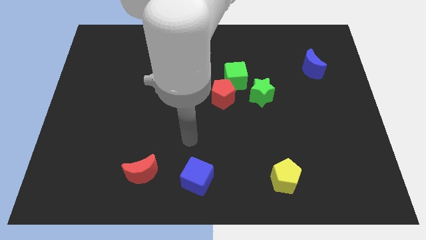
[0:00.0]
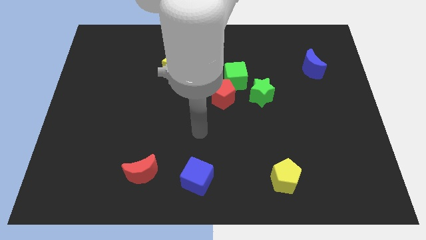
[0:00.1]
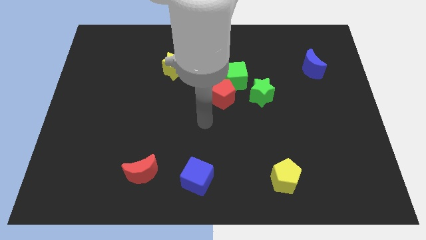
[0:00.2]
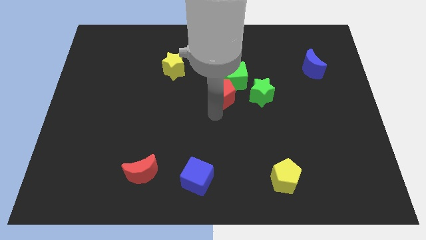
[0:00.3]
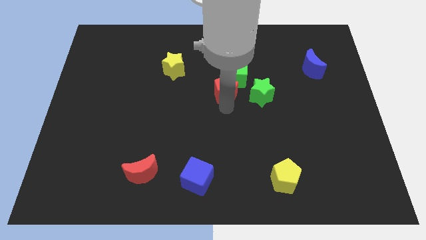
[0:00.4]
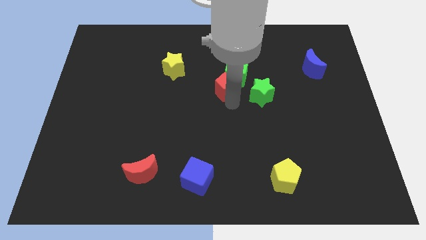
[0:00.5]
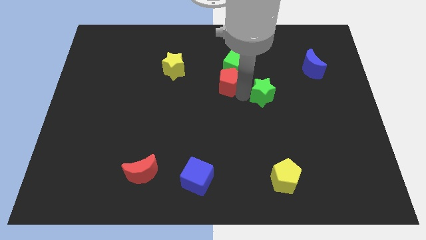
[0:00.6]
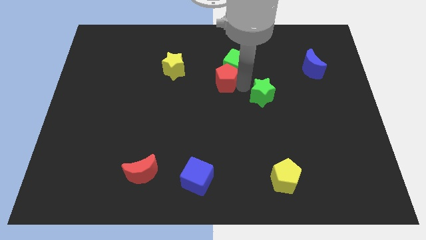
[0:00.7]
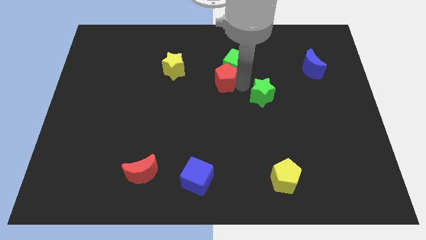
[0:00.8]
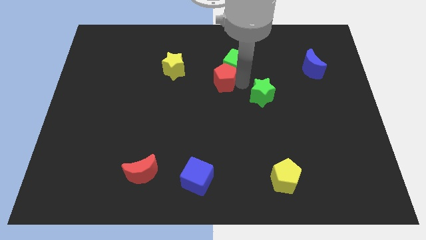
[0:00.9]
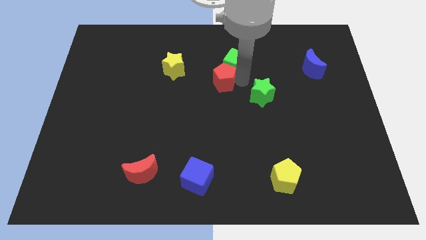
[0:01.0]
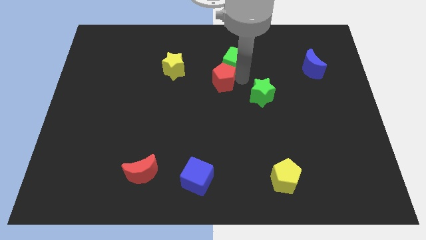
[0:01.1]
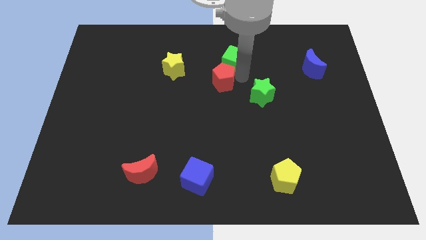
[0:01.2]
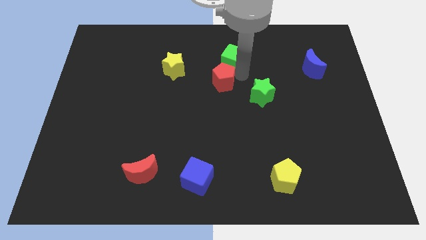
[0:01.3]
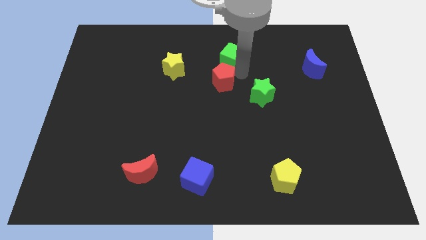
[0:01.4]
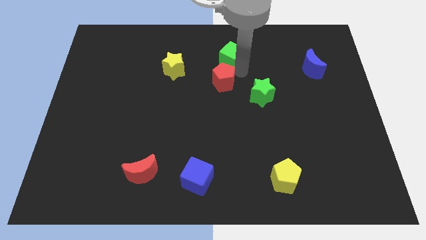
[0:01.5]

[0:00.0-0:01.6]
move the green cube away from the red pentagon and green star

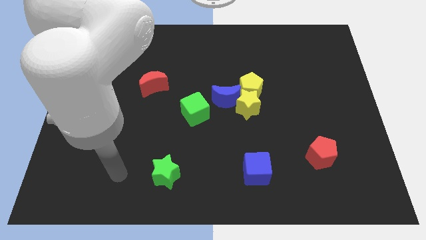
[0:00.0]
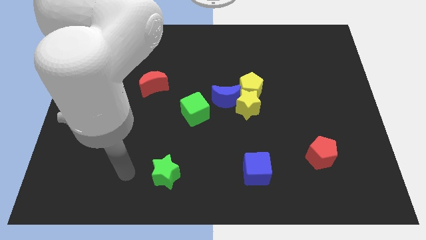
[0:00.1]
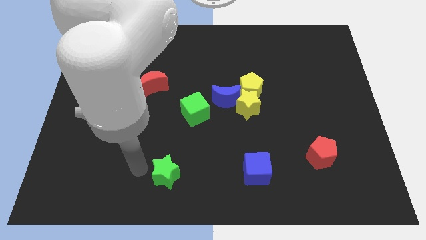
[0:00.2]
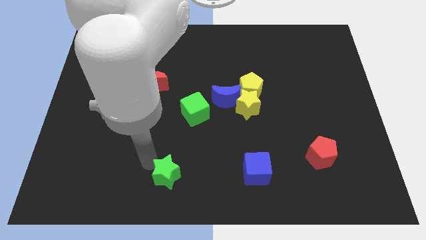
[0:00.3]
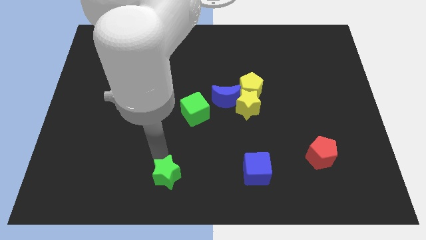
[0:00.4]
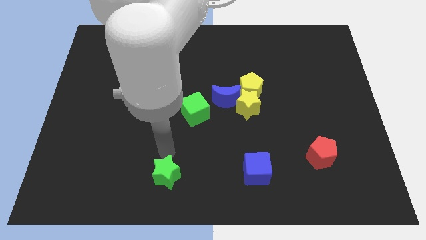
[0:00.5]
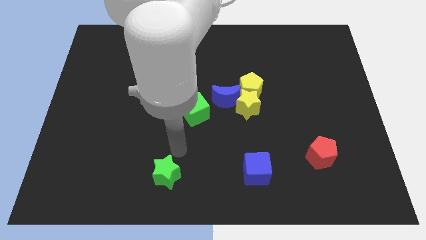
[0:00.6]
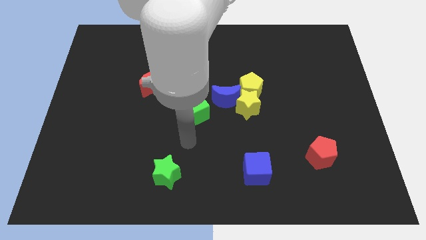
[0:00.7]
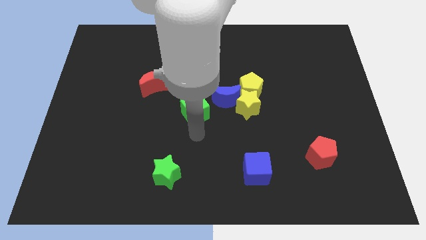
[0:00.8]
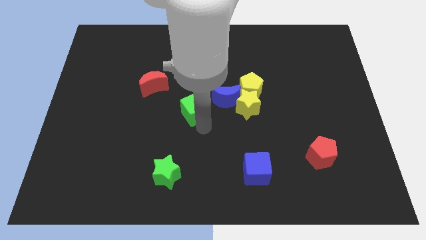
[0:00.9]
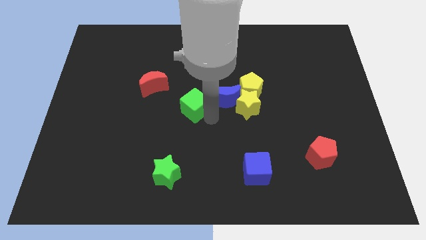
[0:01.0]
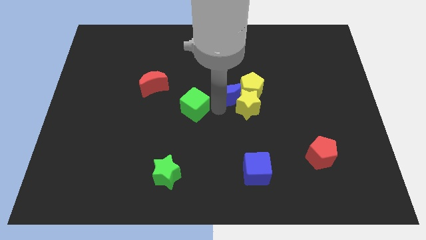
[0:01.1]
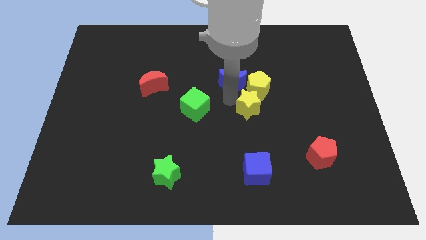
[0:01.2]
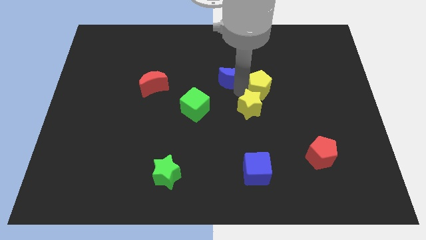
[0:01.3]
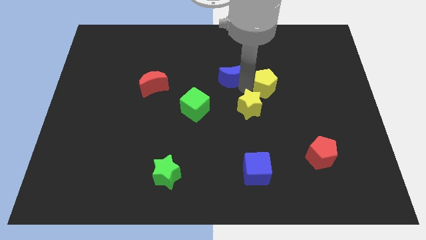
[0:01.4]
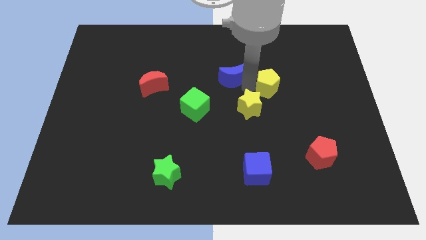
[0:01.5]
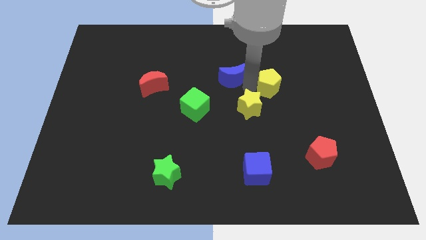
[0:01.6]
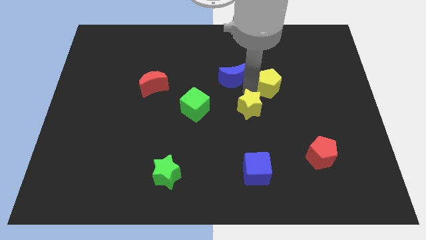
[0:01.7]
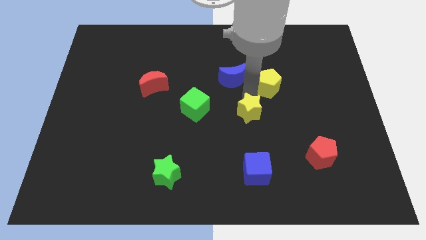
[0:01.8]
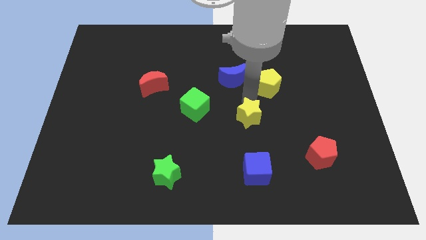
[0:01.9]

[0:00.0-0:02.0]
separate the yellow star from the yellow pentagon and blue moon

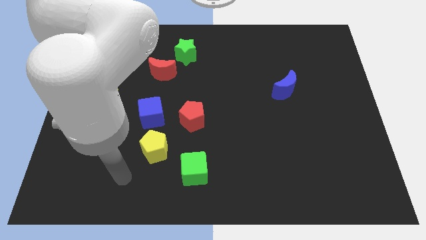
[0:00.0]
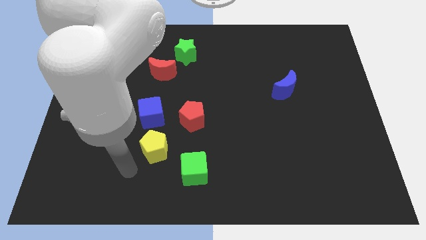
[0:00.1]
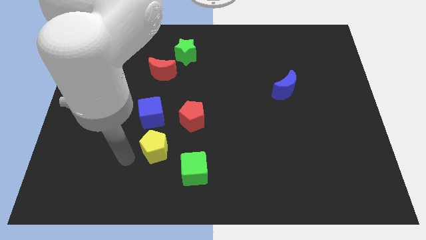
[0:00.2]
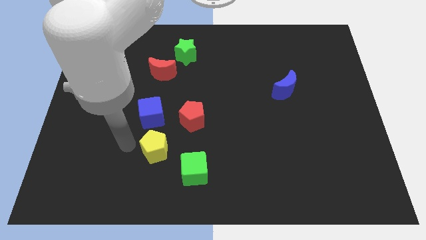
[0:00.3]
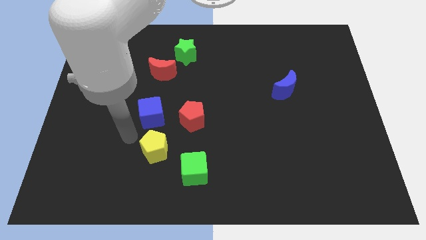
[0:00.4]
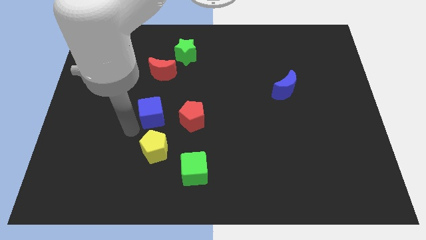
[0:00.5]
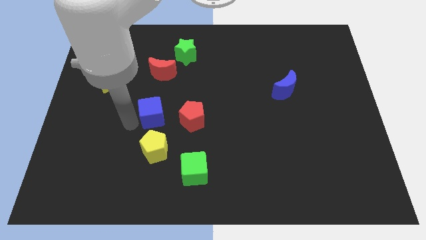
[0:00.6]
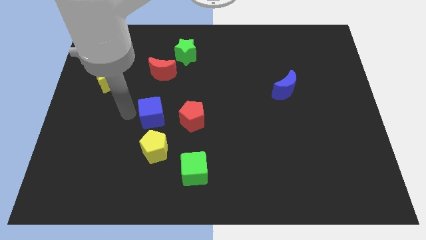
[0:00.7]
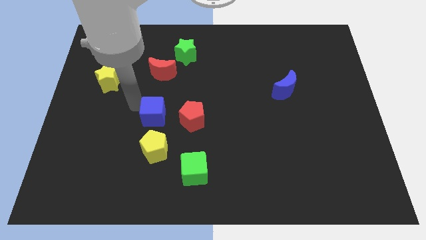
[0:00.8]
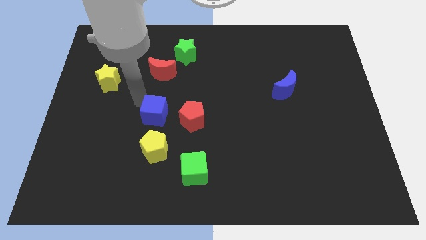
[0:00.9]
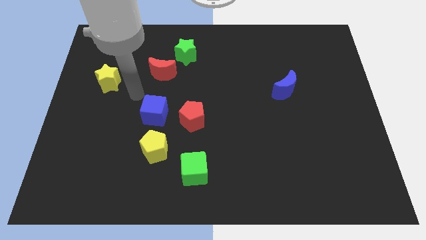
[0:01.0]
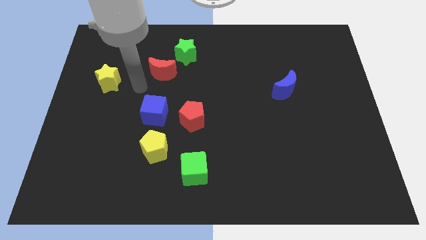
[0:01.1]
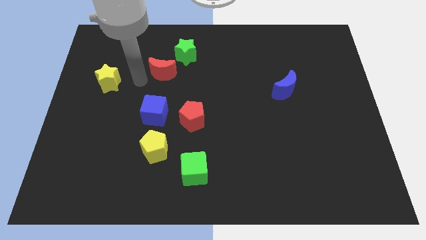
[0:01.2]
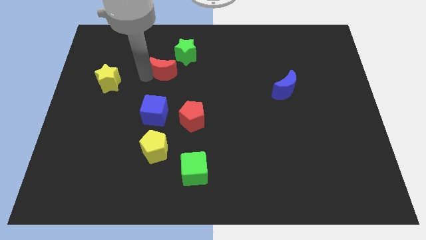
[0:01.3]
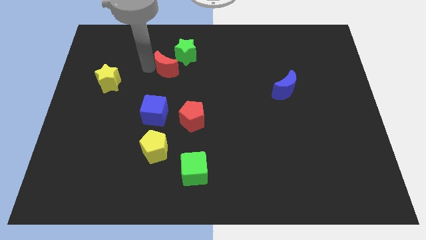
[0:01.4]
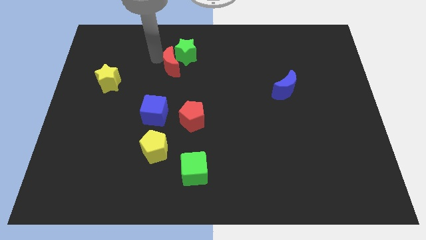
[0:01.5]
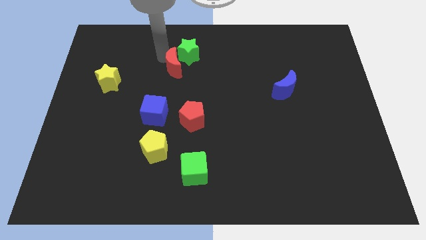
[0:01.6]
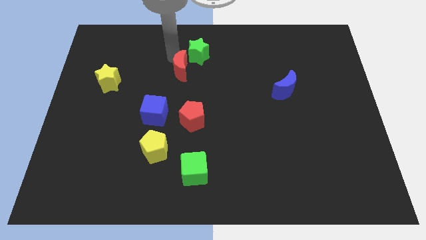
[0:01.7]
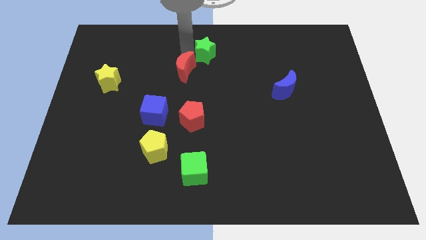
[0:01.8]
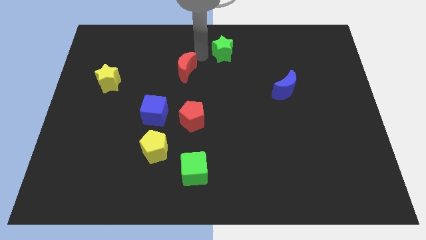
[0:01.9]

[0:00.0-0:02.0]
move the red moon away from the green star

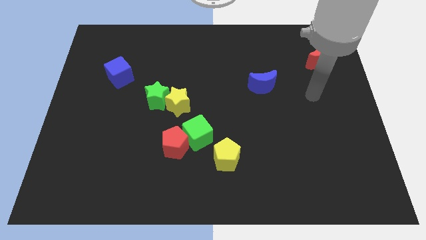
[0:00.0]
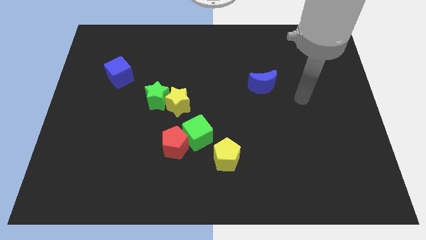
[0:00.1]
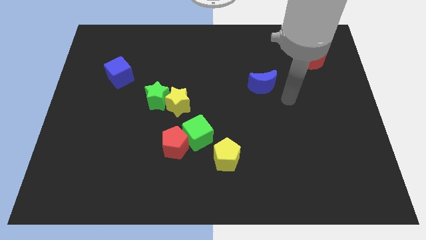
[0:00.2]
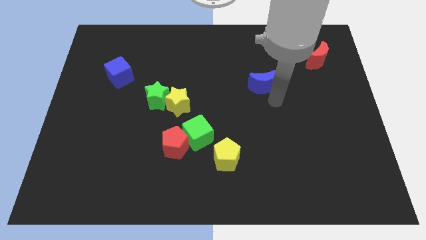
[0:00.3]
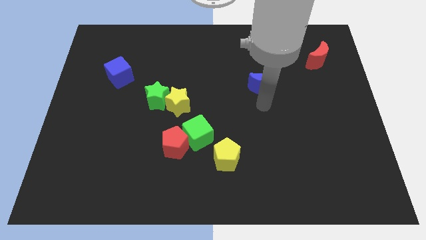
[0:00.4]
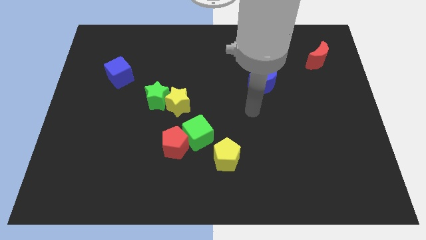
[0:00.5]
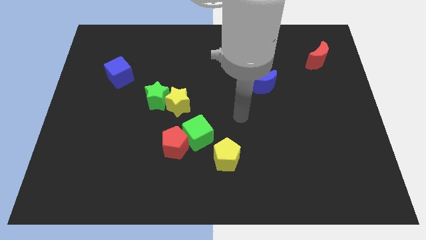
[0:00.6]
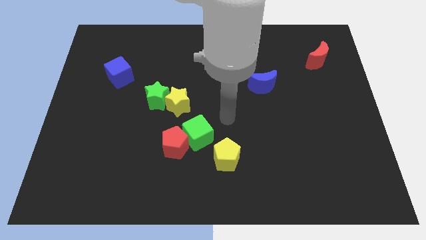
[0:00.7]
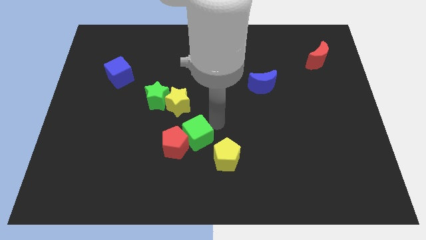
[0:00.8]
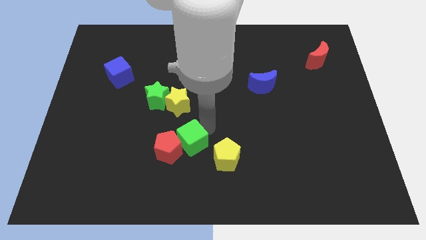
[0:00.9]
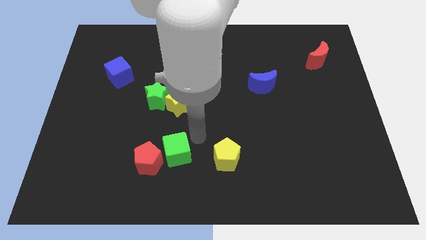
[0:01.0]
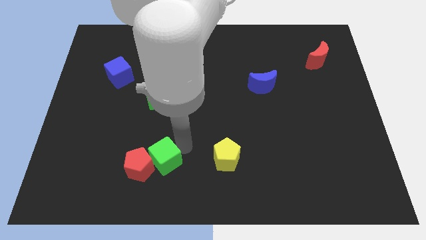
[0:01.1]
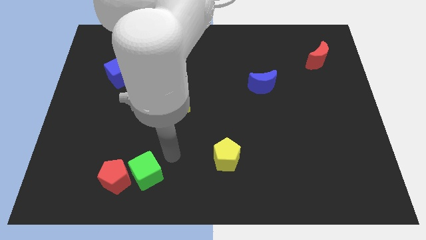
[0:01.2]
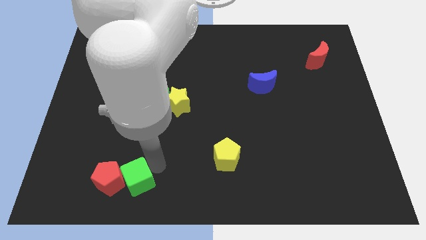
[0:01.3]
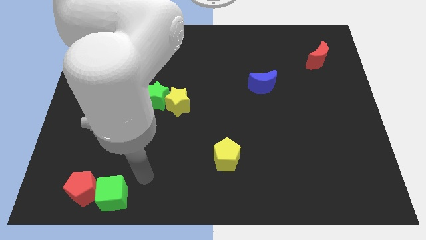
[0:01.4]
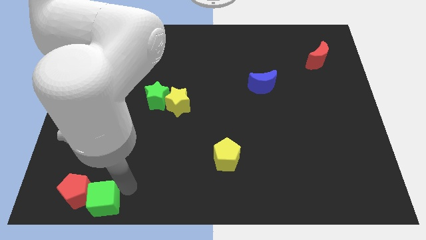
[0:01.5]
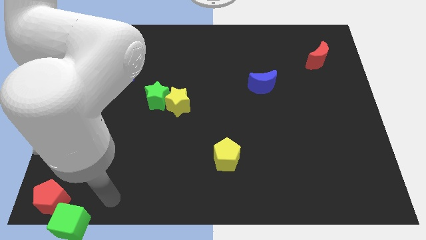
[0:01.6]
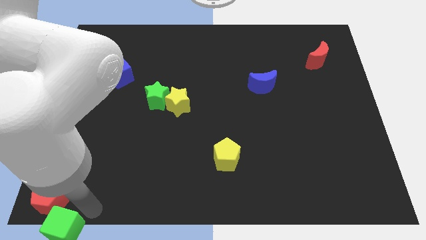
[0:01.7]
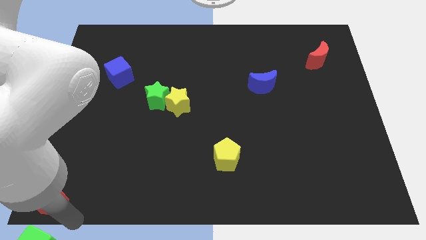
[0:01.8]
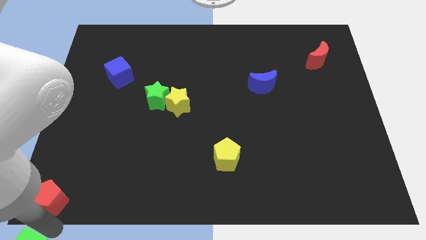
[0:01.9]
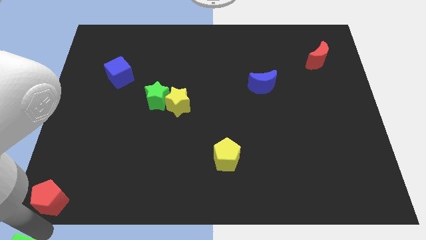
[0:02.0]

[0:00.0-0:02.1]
pull the red pentagon apart from the green cube

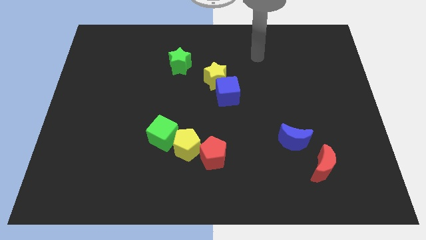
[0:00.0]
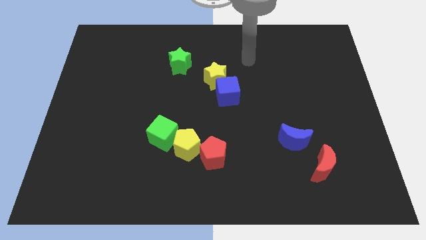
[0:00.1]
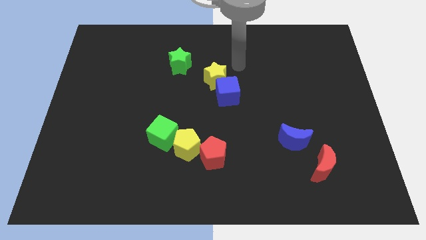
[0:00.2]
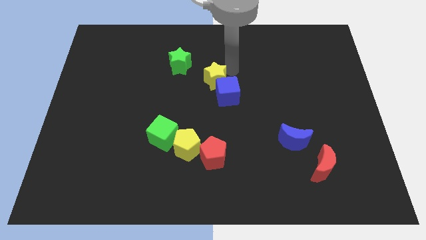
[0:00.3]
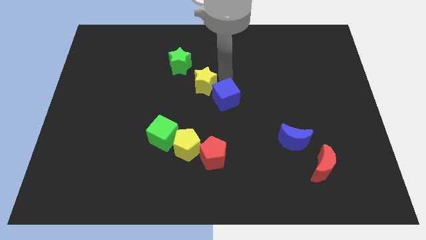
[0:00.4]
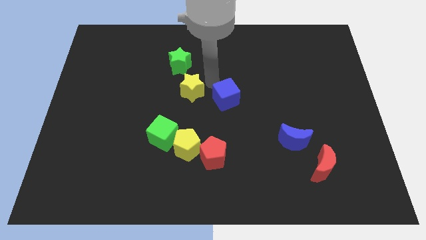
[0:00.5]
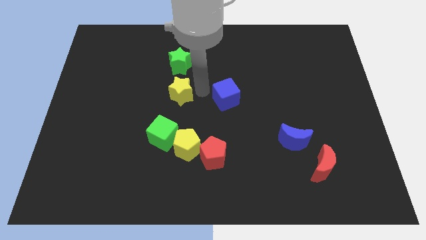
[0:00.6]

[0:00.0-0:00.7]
pull the blue cube apart from the yellow star

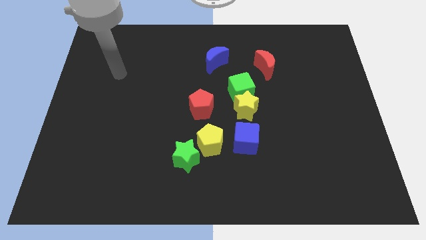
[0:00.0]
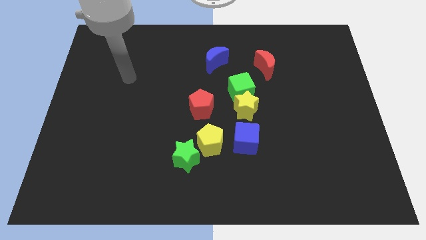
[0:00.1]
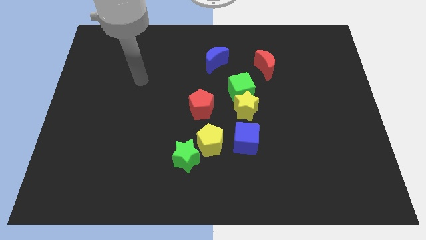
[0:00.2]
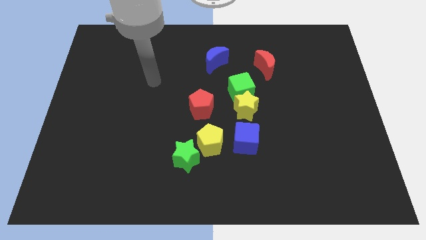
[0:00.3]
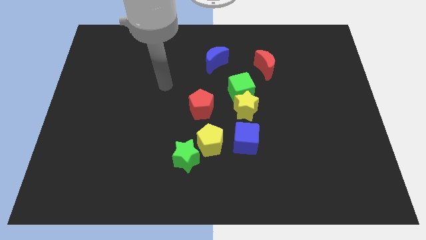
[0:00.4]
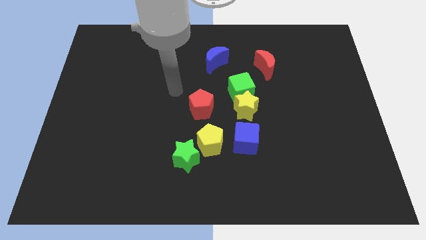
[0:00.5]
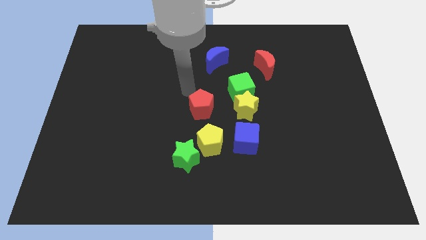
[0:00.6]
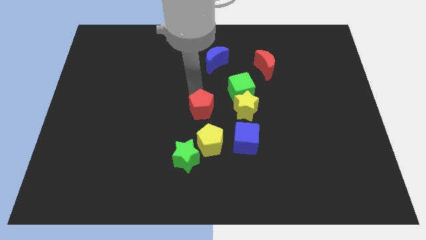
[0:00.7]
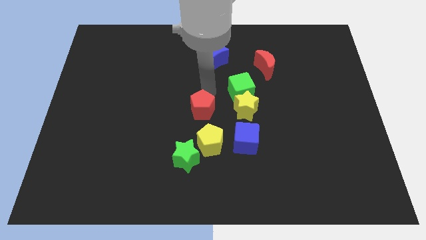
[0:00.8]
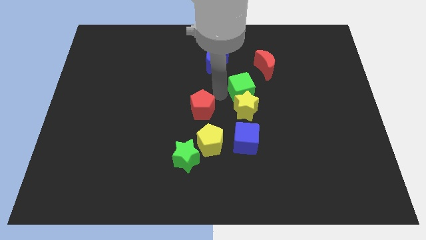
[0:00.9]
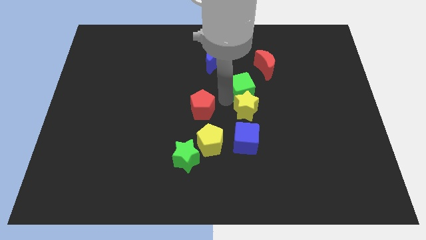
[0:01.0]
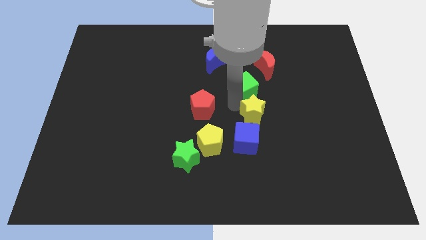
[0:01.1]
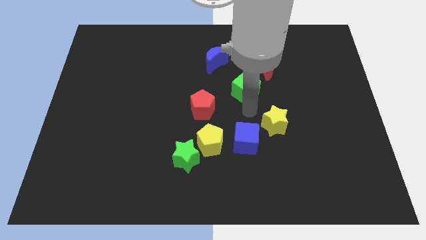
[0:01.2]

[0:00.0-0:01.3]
pull the green cube apart from the yellow star
